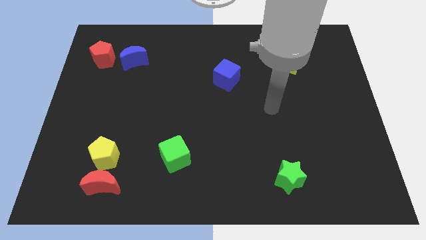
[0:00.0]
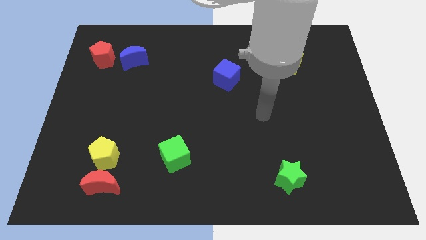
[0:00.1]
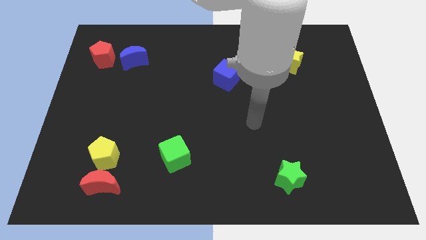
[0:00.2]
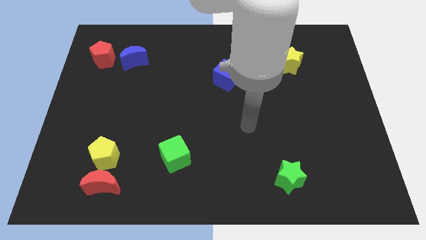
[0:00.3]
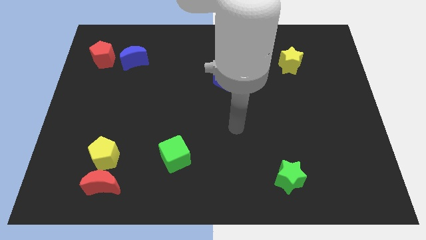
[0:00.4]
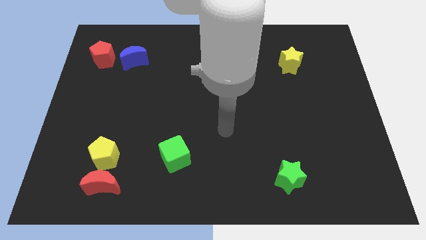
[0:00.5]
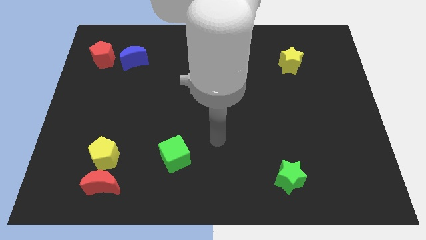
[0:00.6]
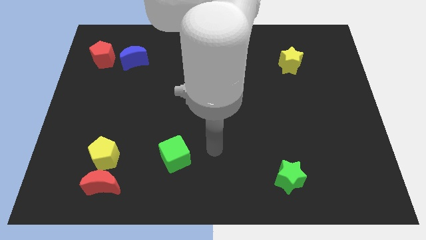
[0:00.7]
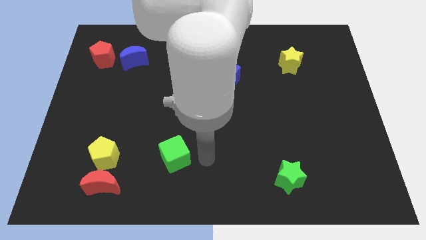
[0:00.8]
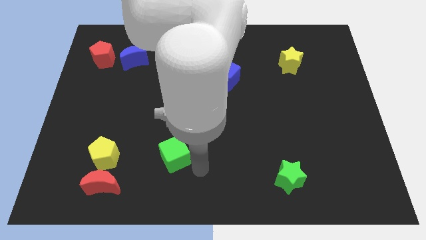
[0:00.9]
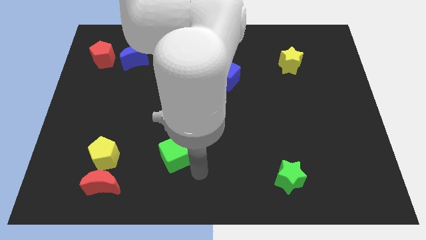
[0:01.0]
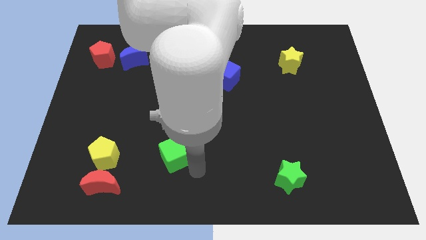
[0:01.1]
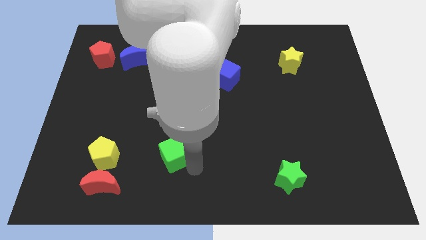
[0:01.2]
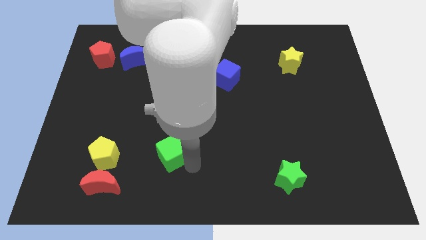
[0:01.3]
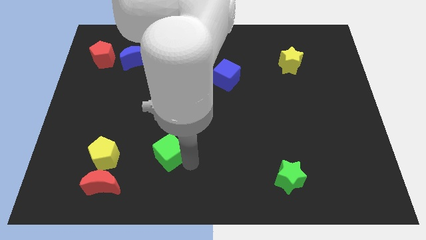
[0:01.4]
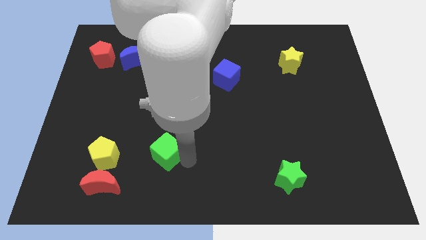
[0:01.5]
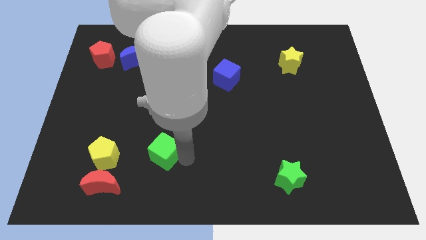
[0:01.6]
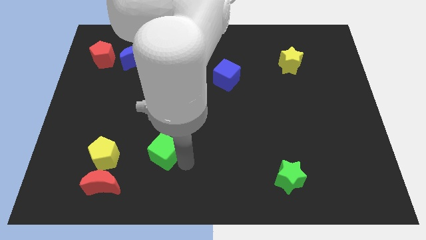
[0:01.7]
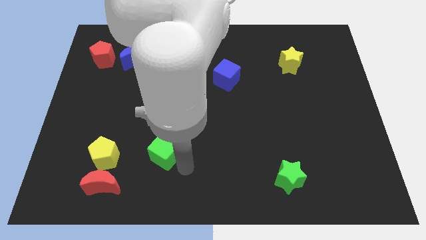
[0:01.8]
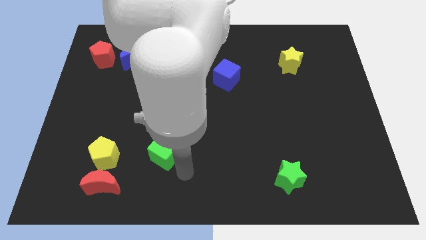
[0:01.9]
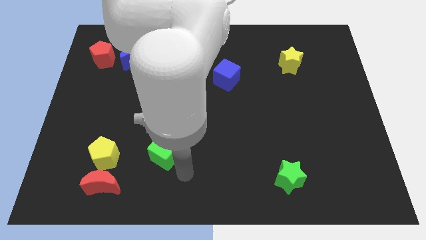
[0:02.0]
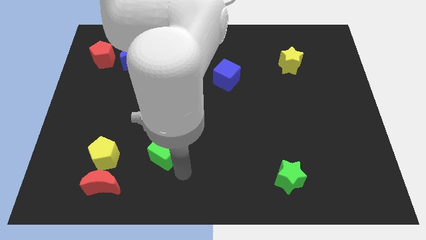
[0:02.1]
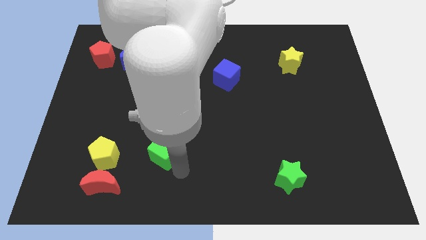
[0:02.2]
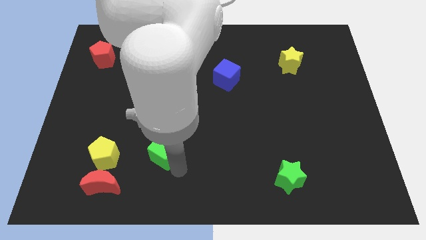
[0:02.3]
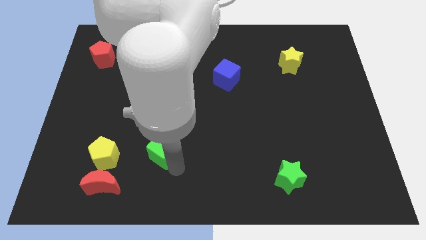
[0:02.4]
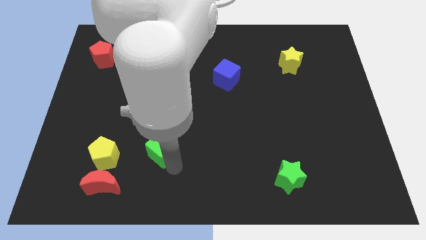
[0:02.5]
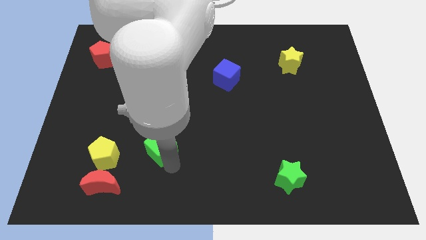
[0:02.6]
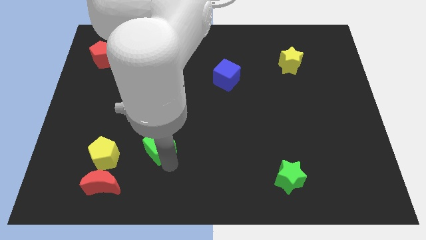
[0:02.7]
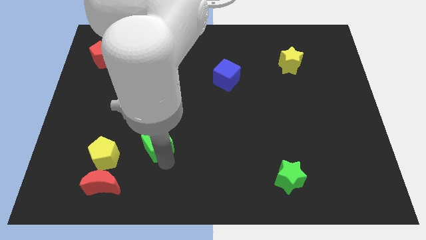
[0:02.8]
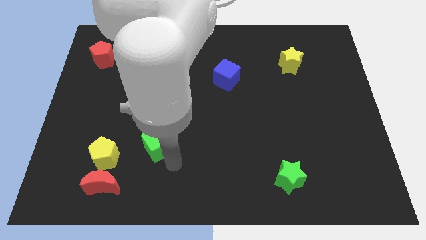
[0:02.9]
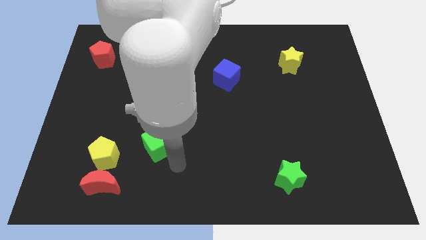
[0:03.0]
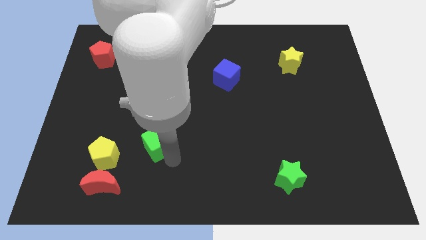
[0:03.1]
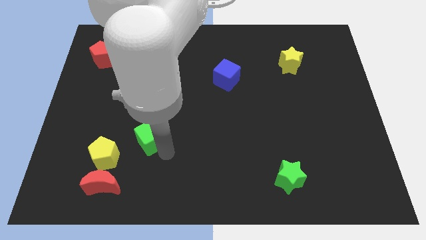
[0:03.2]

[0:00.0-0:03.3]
slide the green cube a bit up and then to the left

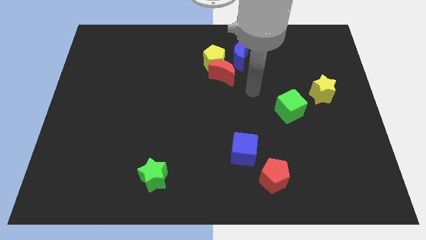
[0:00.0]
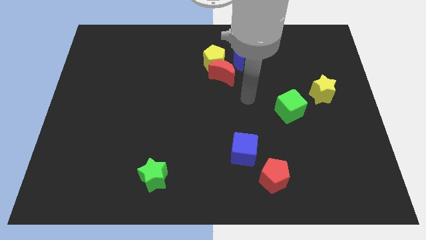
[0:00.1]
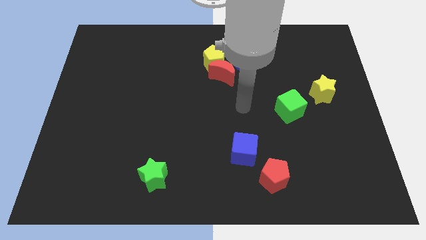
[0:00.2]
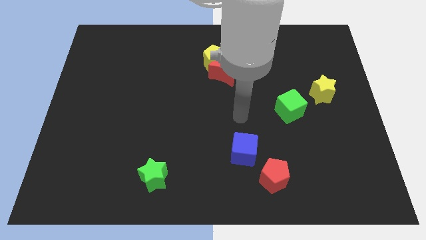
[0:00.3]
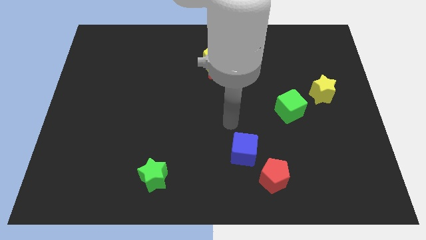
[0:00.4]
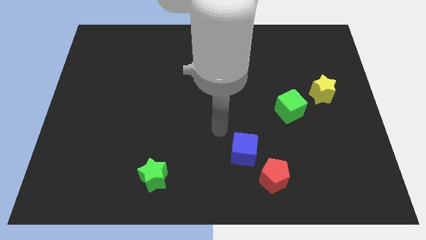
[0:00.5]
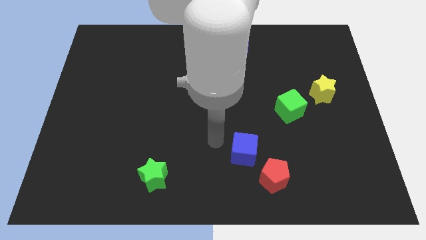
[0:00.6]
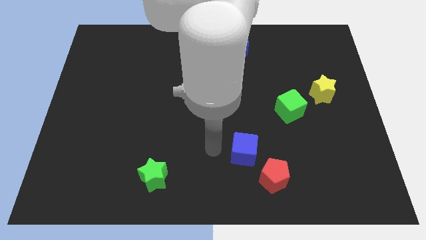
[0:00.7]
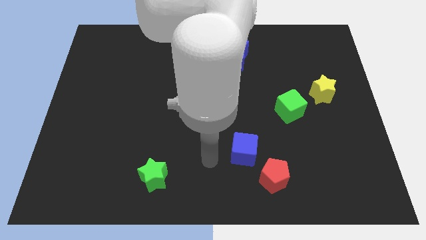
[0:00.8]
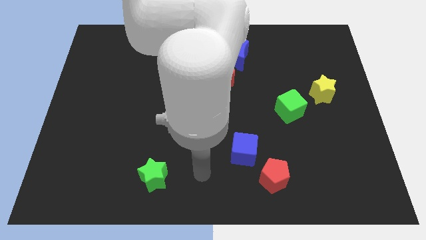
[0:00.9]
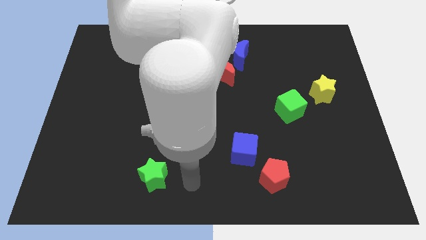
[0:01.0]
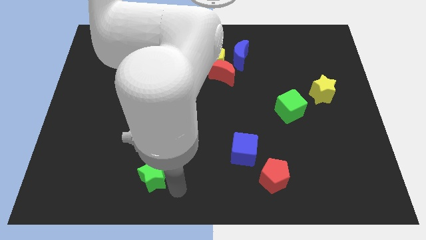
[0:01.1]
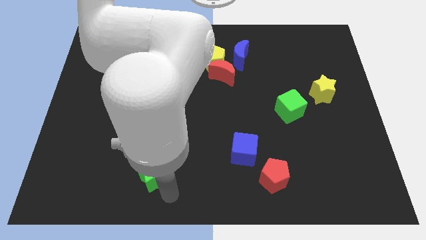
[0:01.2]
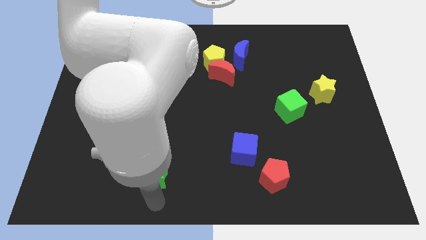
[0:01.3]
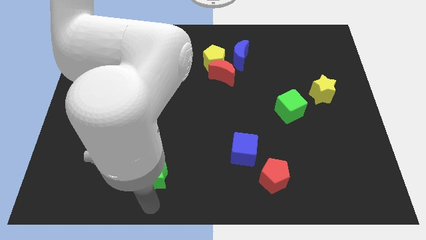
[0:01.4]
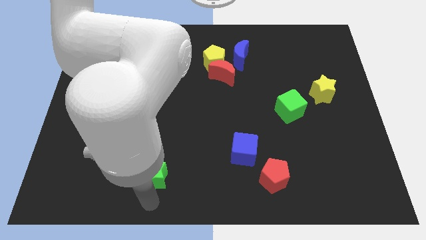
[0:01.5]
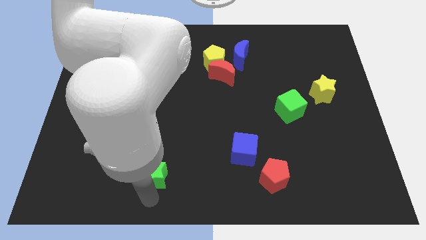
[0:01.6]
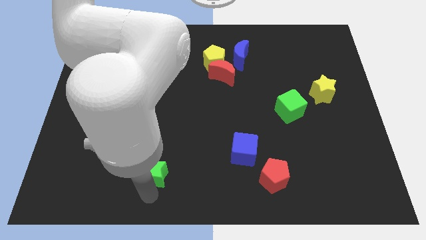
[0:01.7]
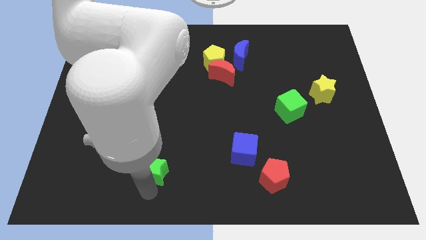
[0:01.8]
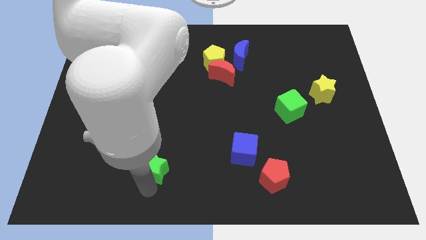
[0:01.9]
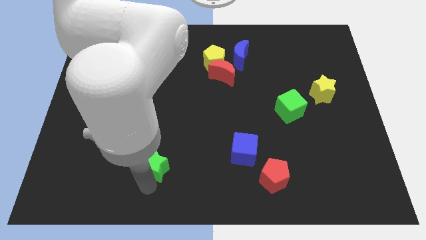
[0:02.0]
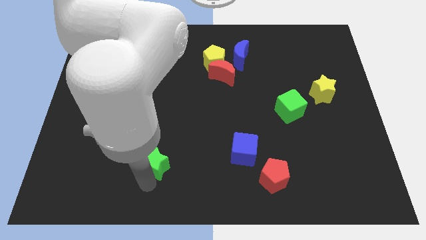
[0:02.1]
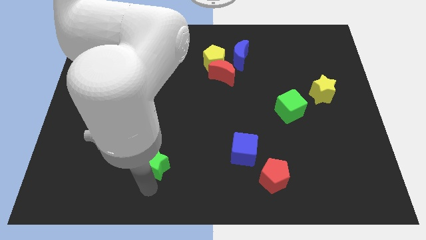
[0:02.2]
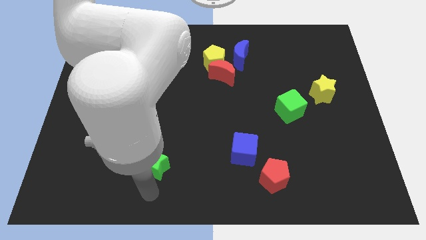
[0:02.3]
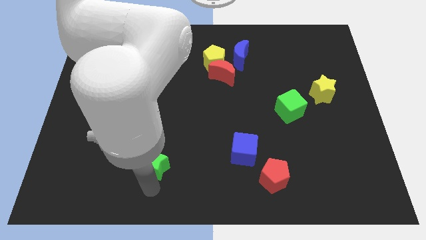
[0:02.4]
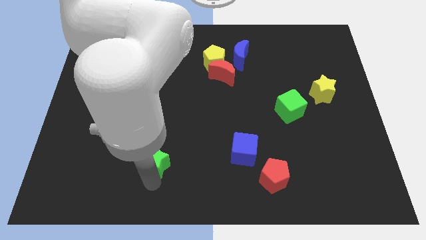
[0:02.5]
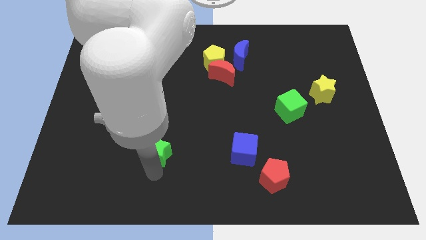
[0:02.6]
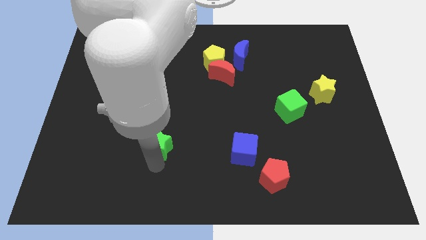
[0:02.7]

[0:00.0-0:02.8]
push the green star slightly upwards

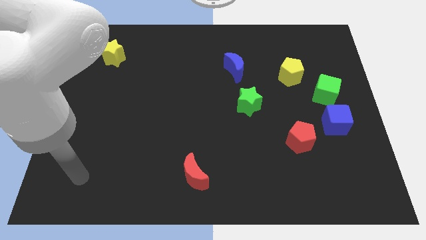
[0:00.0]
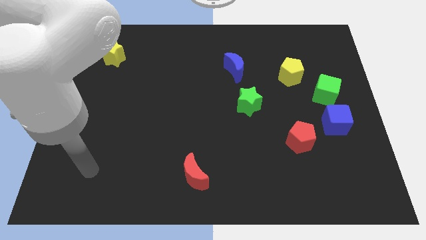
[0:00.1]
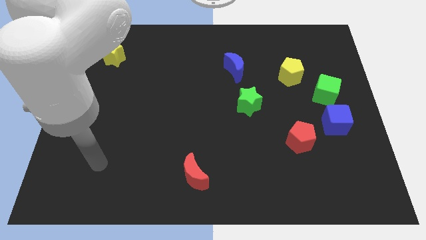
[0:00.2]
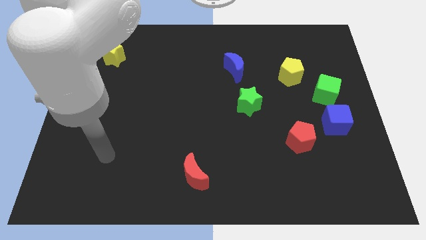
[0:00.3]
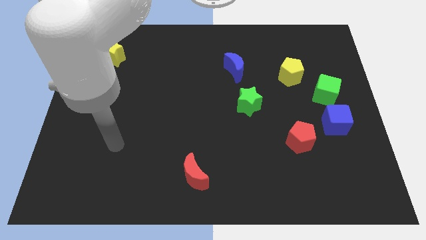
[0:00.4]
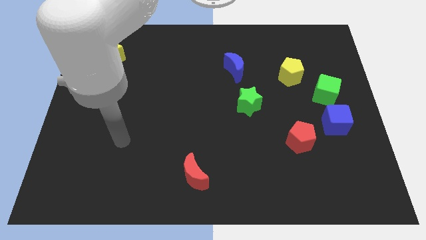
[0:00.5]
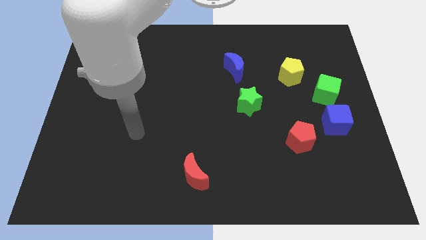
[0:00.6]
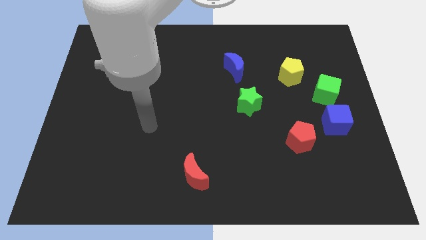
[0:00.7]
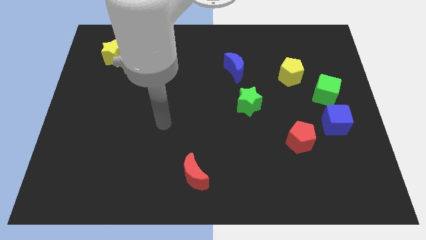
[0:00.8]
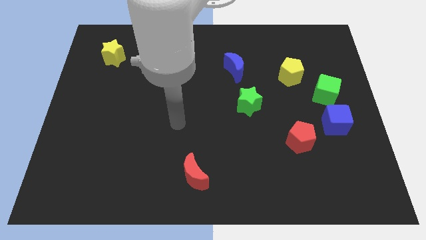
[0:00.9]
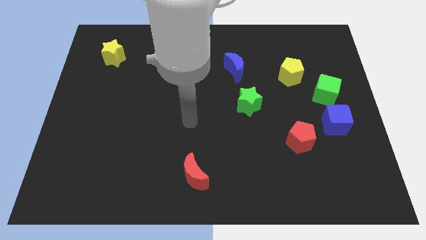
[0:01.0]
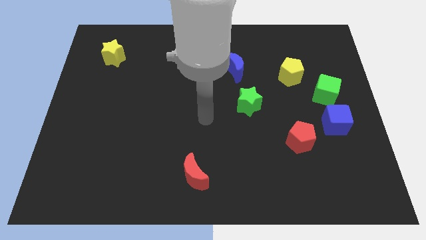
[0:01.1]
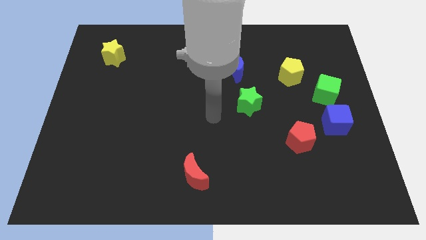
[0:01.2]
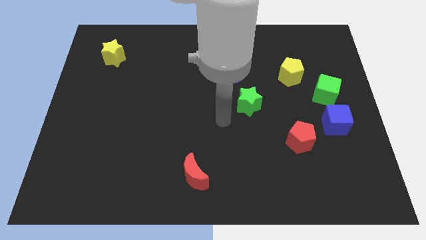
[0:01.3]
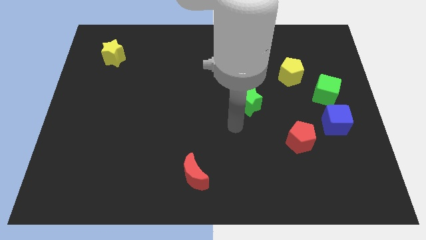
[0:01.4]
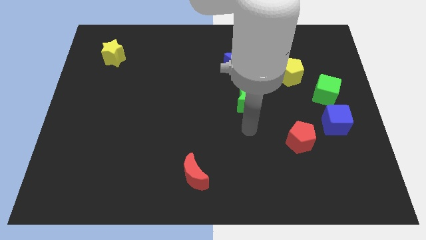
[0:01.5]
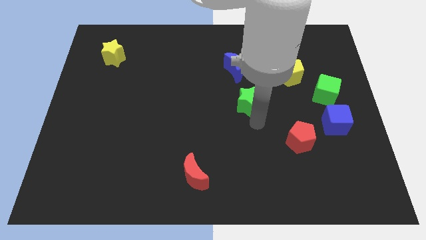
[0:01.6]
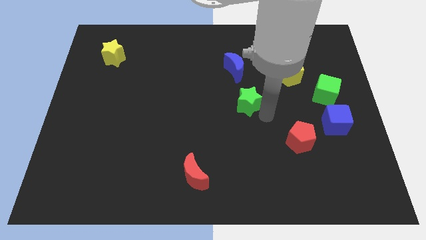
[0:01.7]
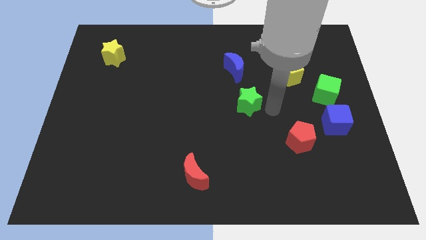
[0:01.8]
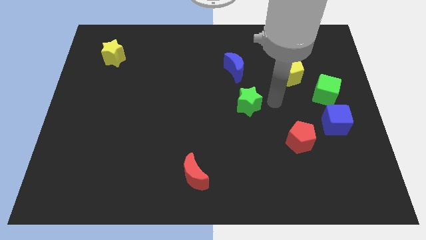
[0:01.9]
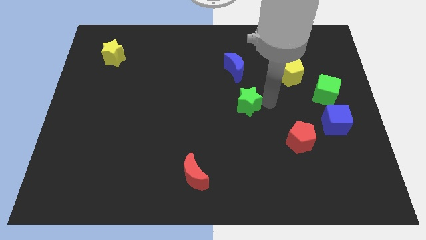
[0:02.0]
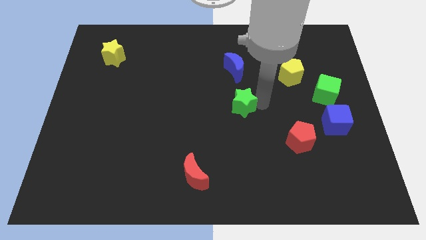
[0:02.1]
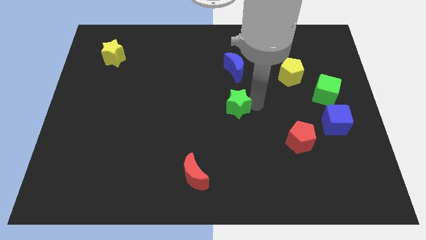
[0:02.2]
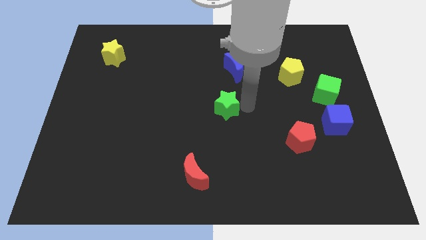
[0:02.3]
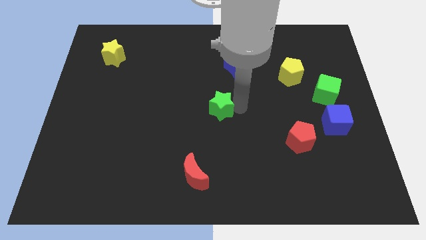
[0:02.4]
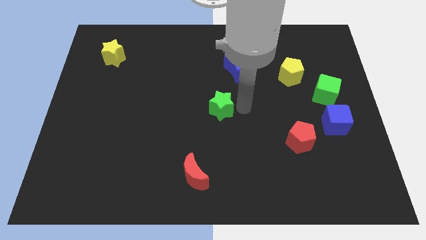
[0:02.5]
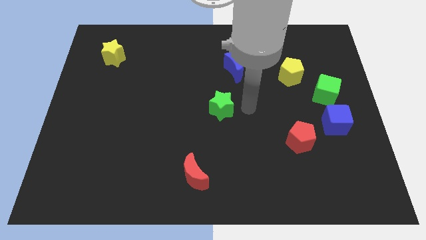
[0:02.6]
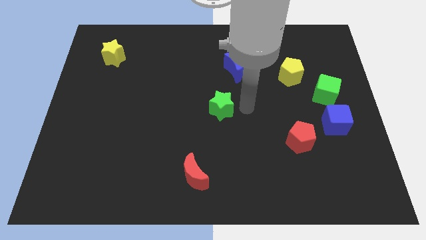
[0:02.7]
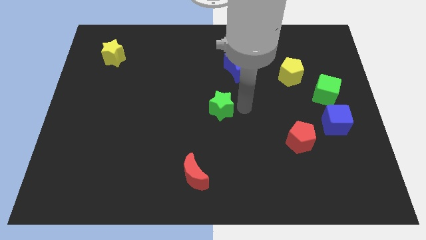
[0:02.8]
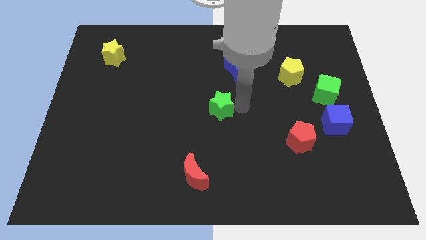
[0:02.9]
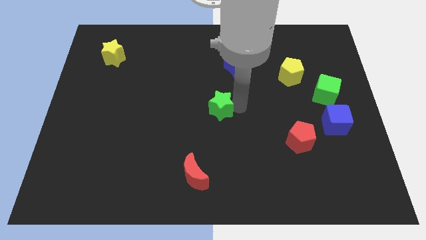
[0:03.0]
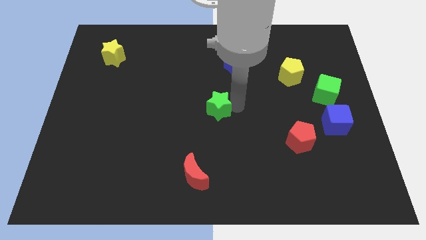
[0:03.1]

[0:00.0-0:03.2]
push the green star somewhat left
